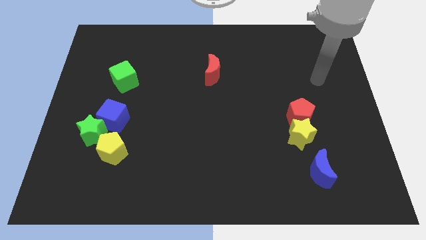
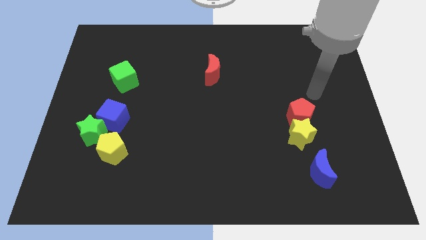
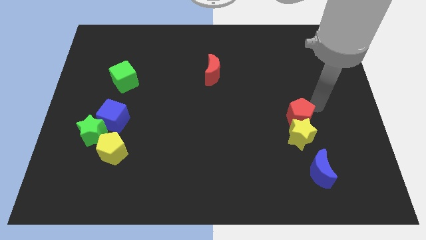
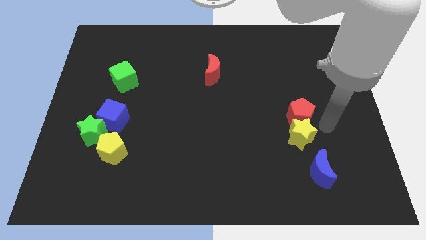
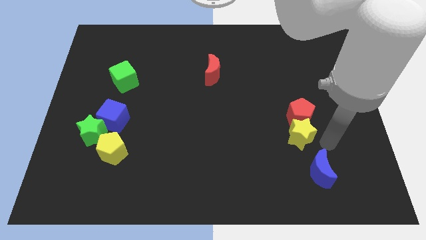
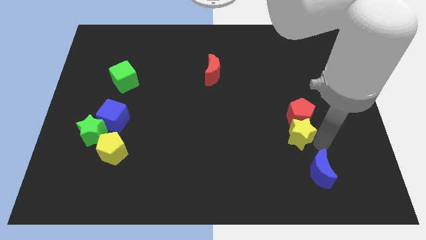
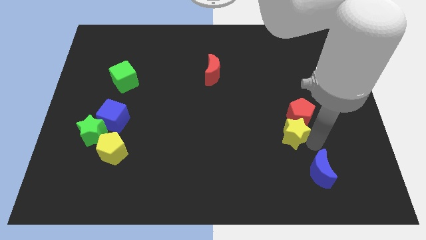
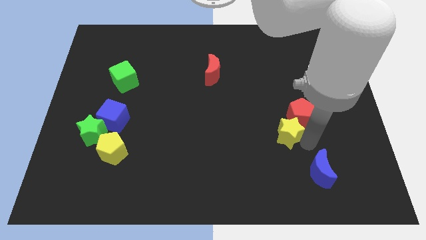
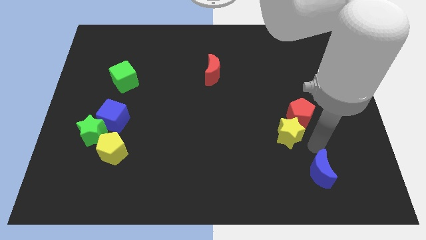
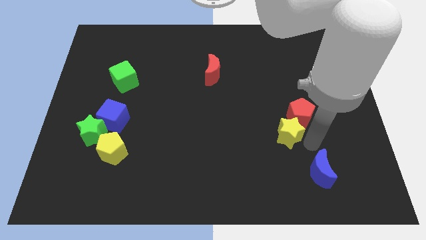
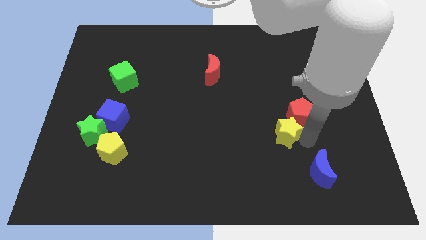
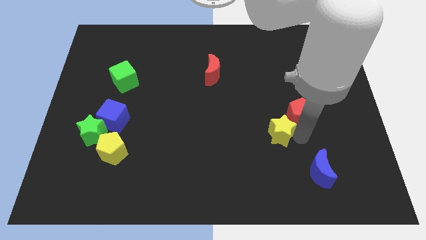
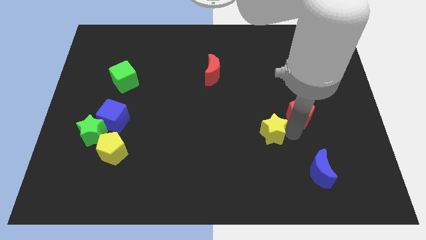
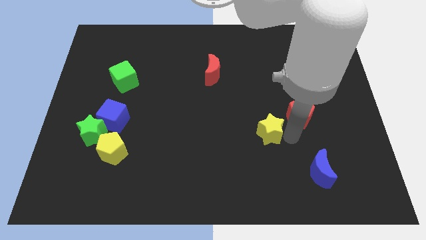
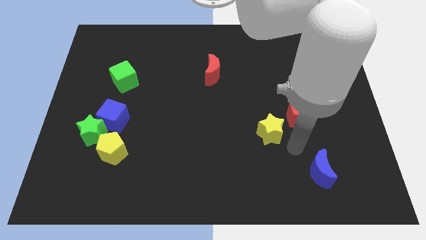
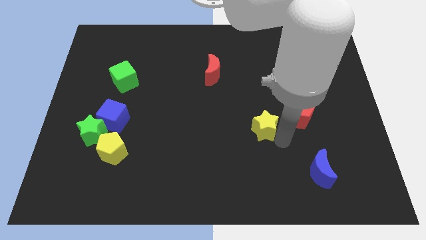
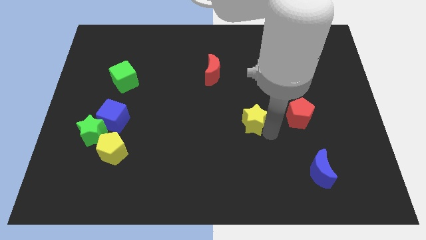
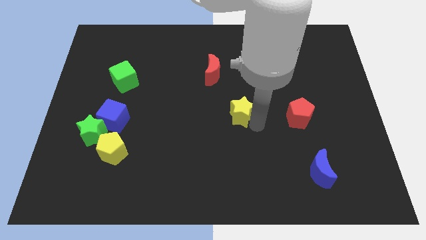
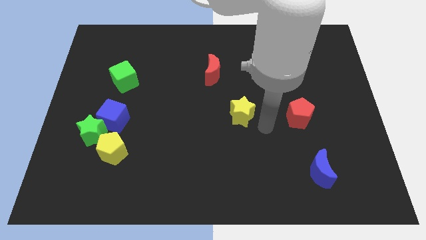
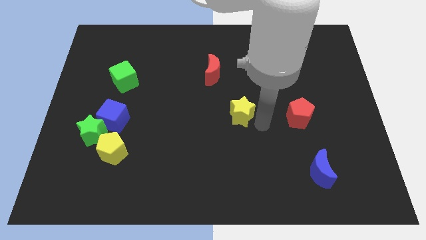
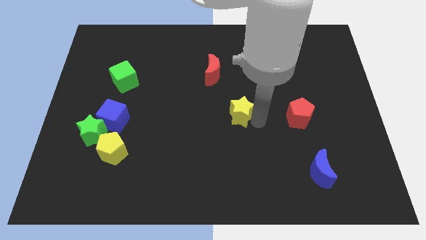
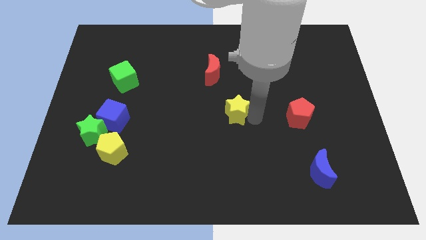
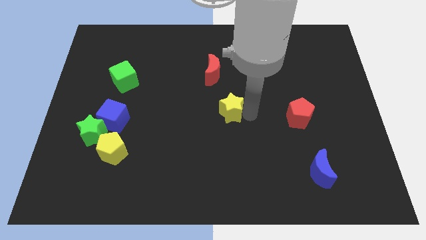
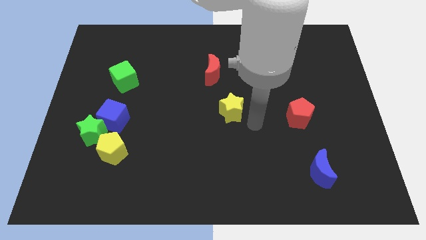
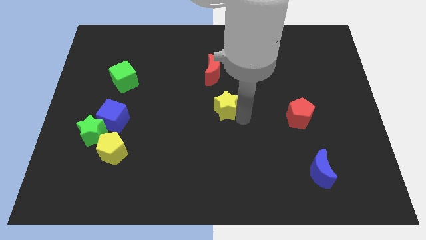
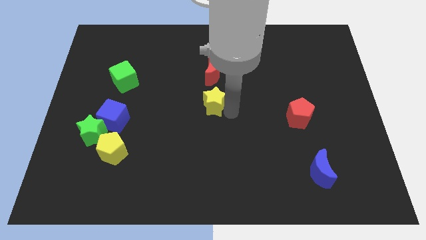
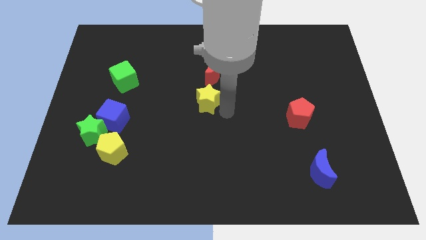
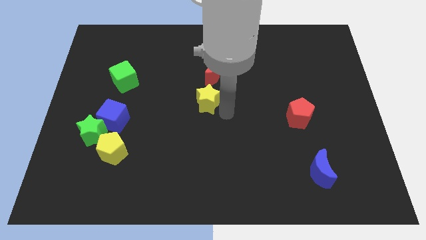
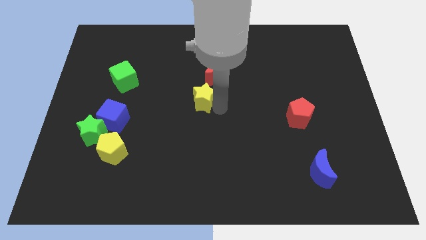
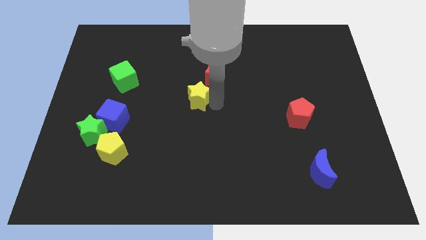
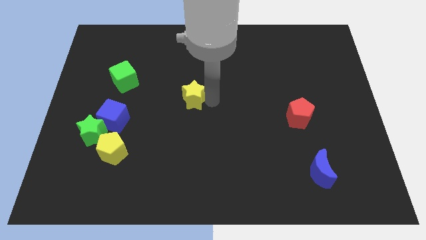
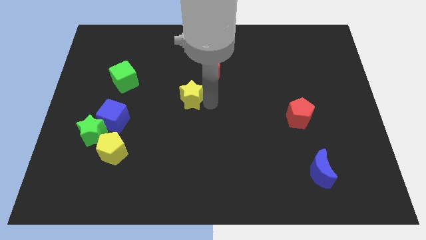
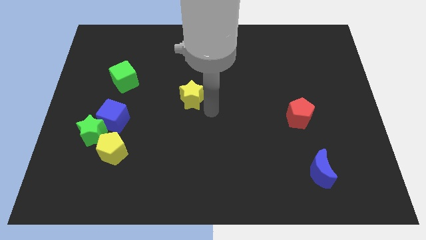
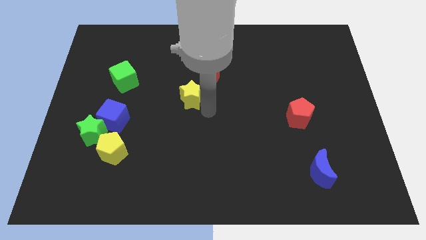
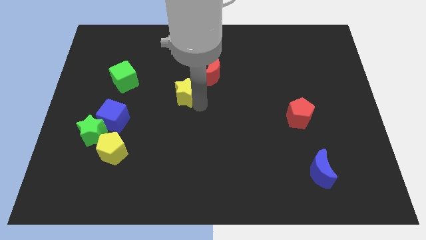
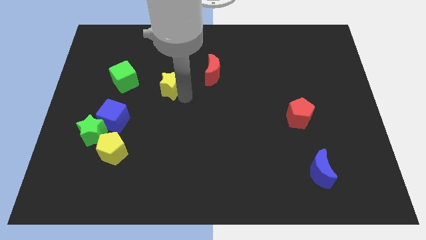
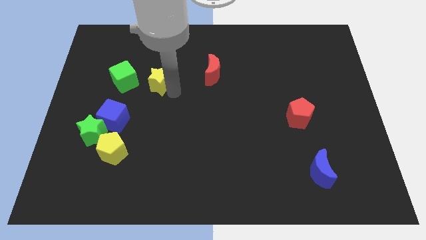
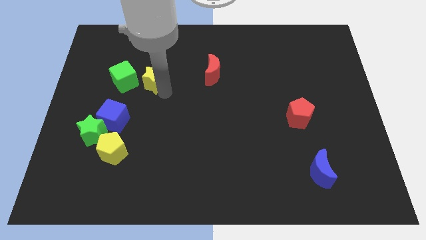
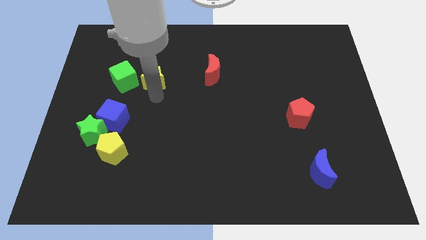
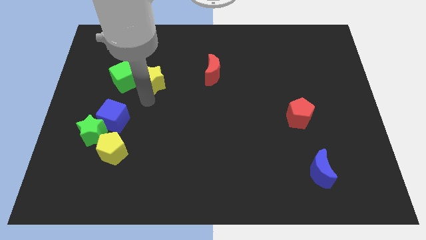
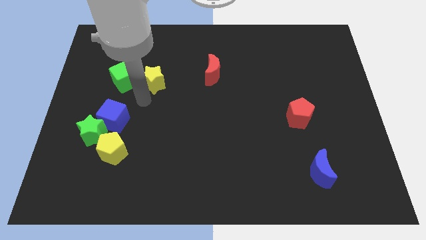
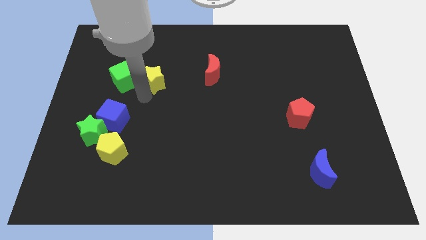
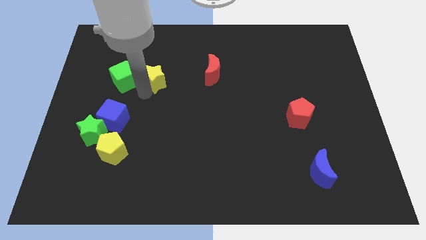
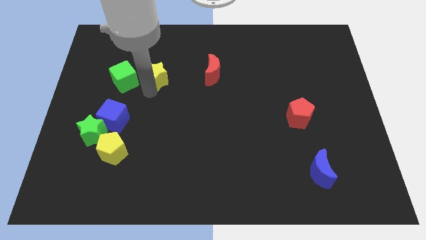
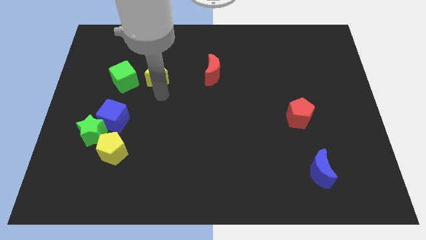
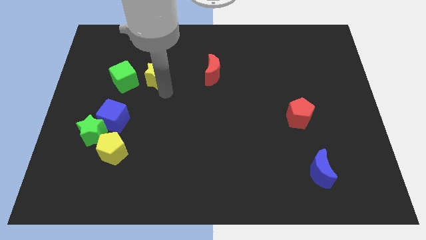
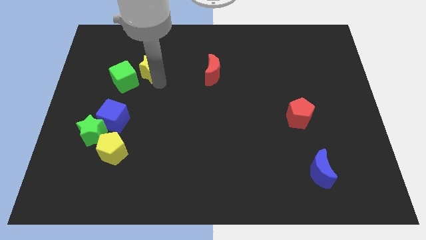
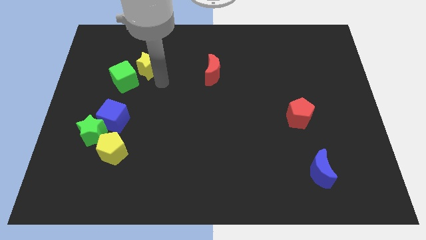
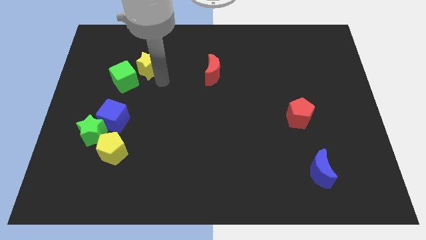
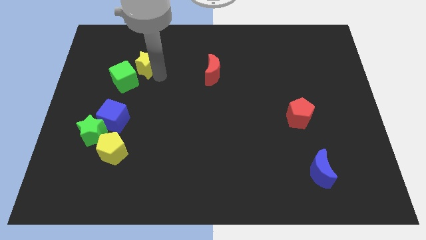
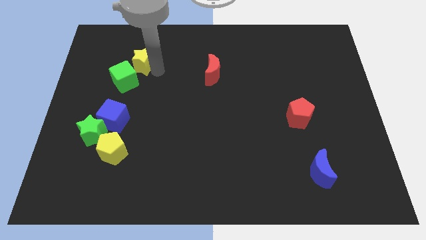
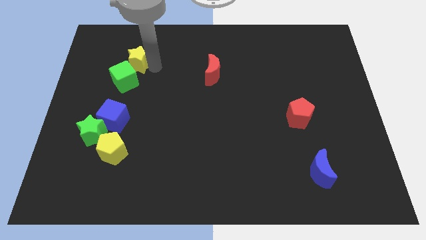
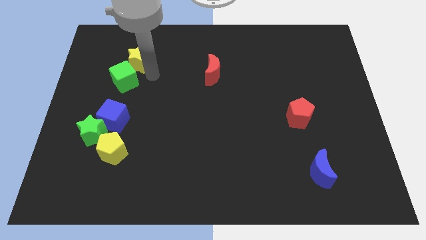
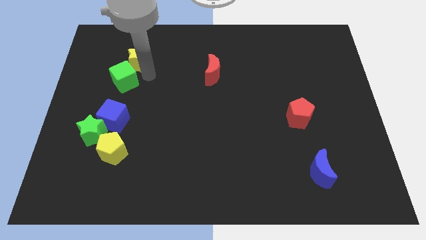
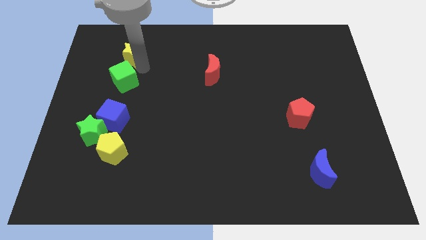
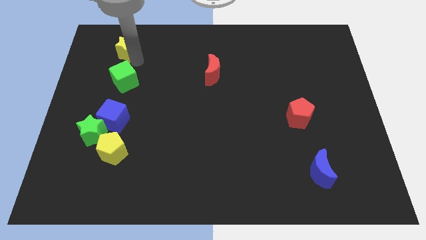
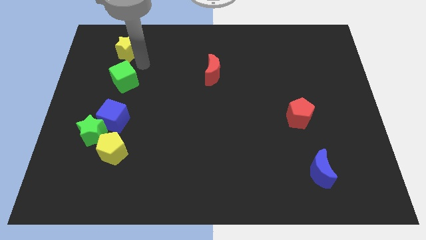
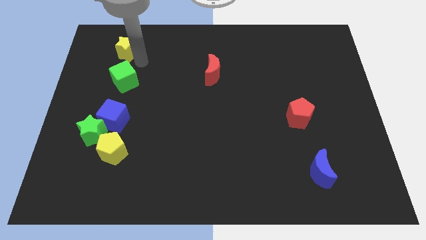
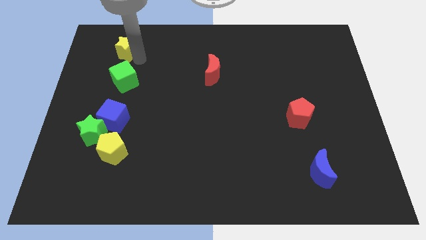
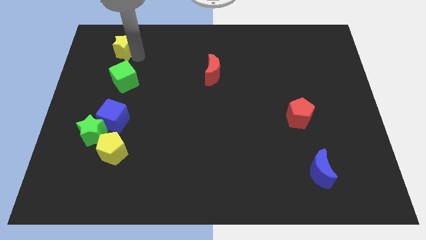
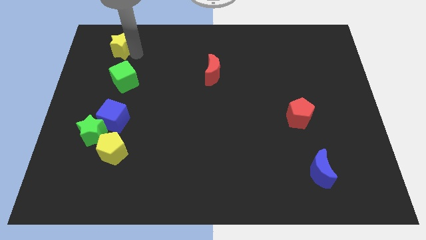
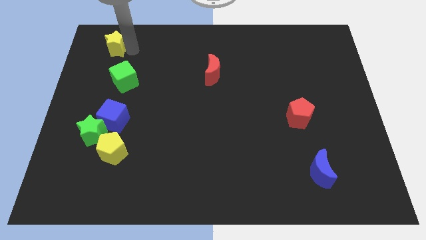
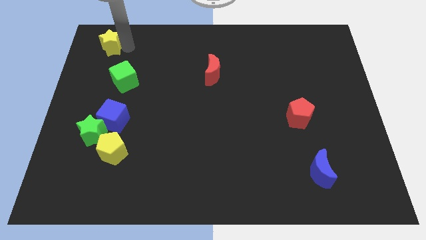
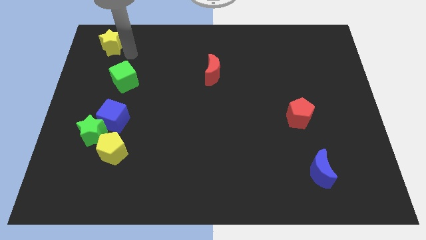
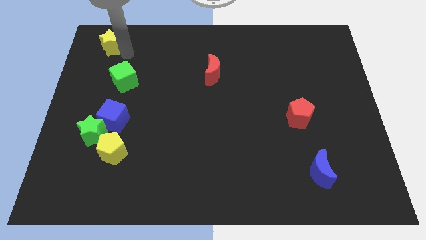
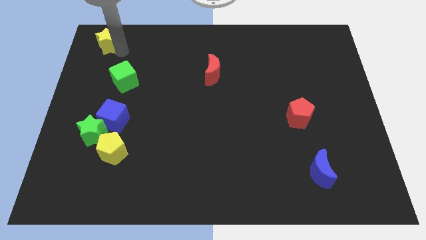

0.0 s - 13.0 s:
put the yellow star to the upper left corner
